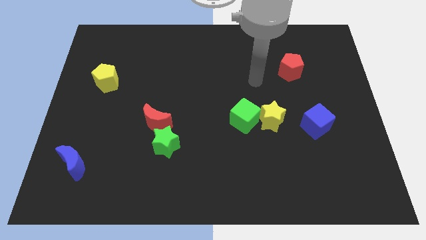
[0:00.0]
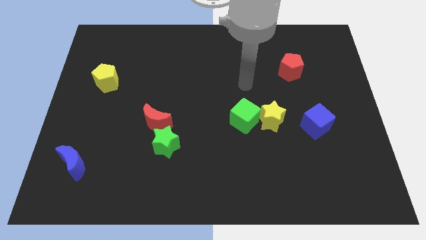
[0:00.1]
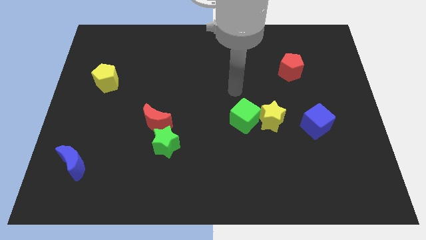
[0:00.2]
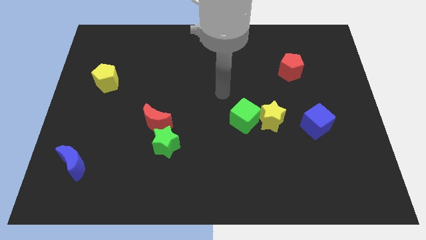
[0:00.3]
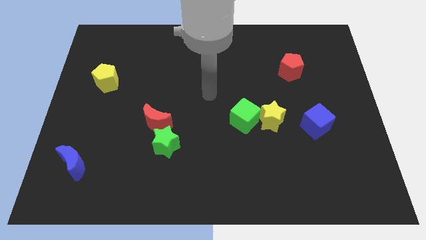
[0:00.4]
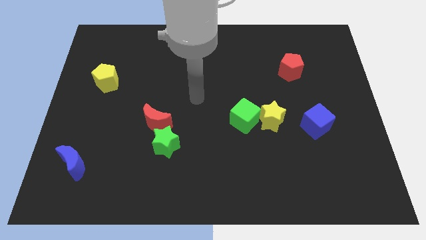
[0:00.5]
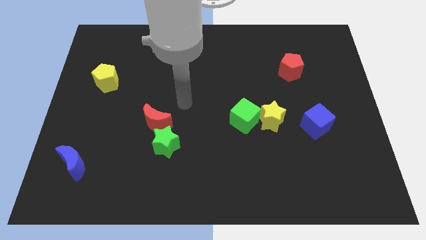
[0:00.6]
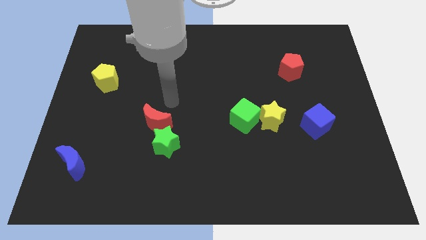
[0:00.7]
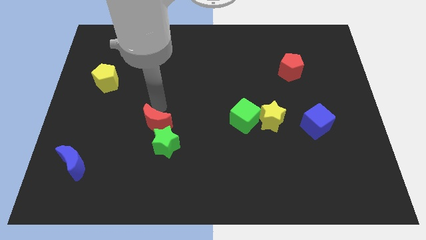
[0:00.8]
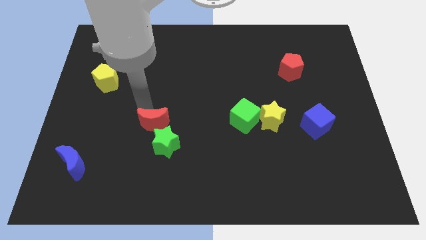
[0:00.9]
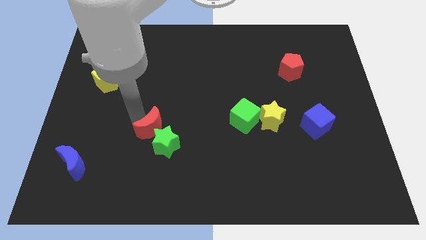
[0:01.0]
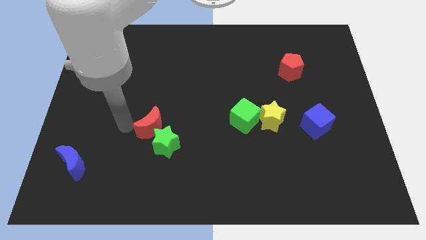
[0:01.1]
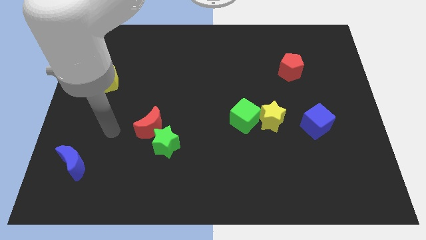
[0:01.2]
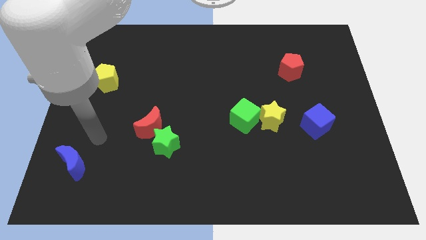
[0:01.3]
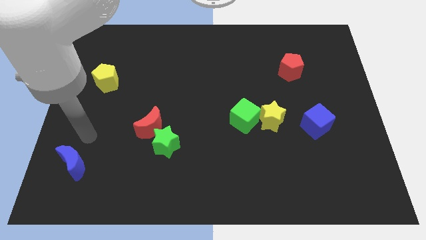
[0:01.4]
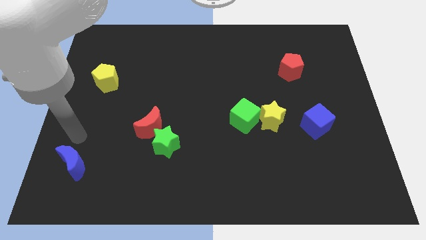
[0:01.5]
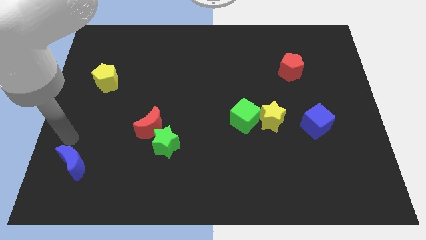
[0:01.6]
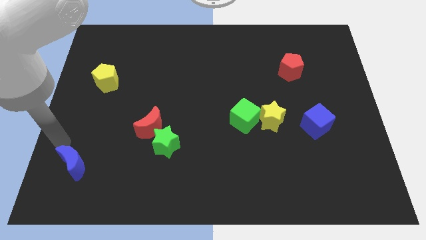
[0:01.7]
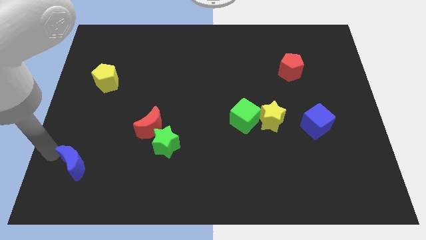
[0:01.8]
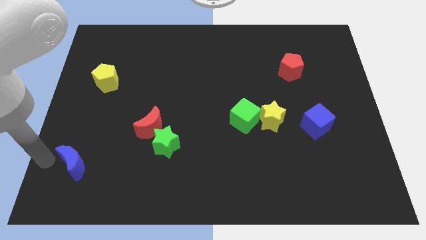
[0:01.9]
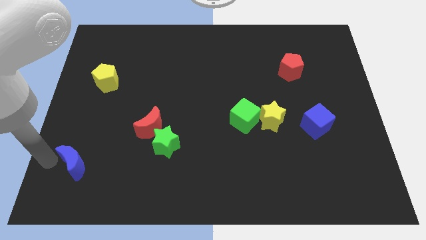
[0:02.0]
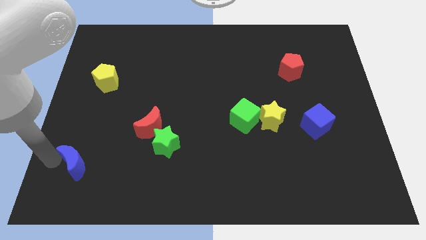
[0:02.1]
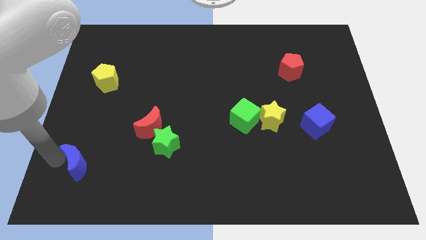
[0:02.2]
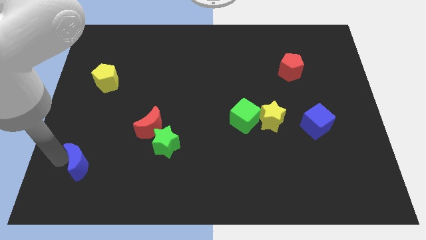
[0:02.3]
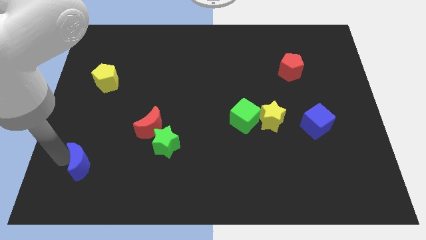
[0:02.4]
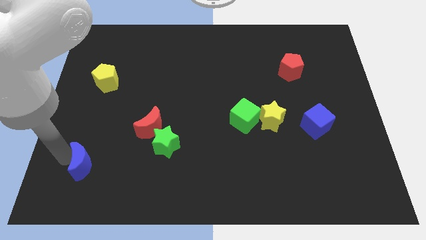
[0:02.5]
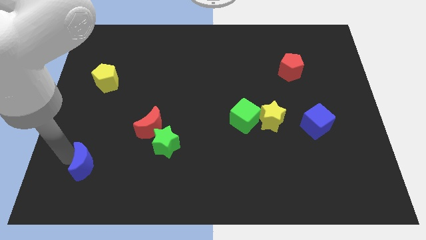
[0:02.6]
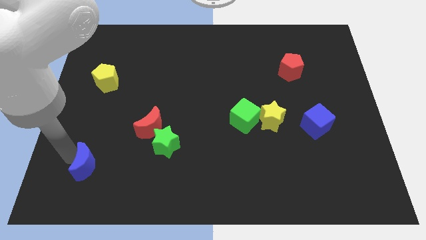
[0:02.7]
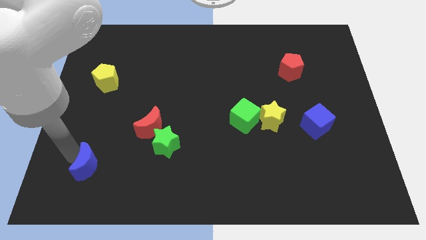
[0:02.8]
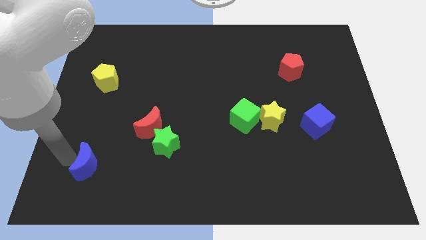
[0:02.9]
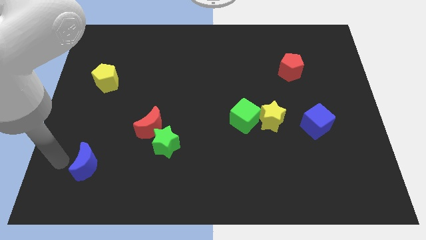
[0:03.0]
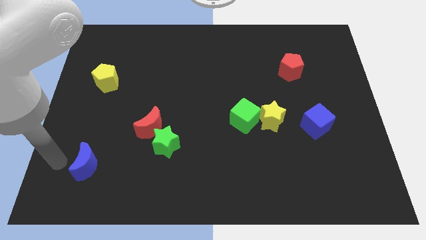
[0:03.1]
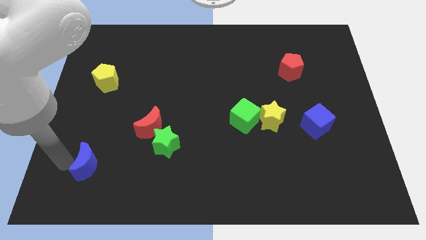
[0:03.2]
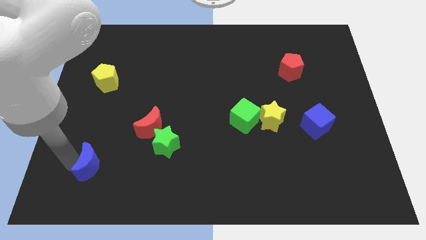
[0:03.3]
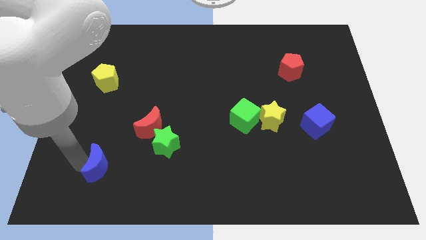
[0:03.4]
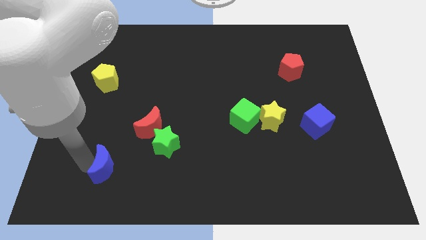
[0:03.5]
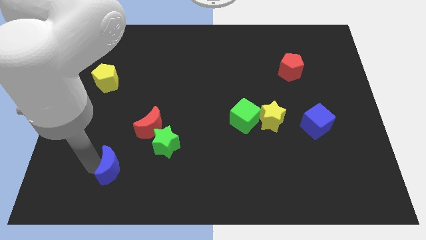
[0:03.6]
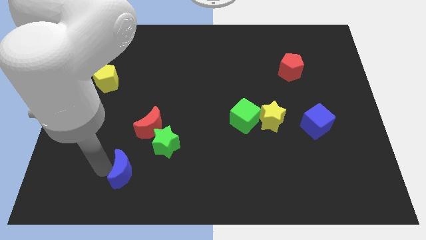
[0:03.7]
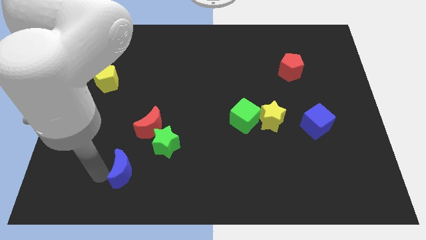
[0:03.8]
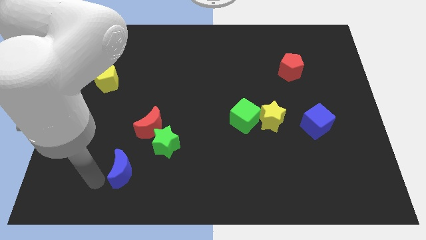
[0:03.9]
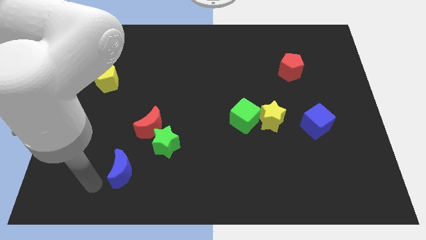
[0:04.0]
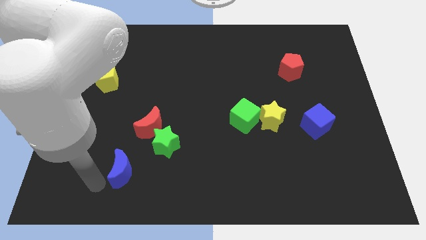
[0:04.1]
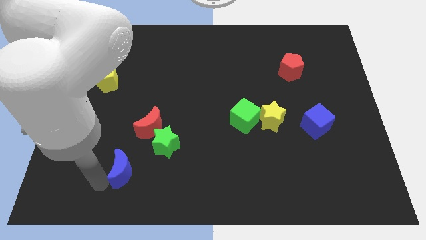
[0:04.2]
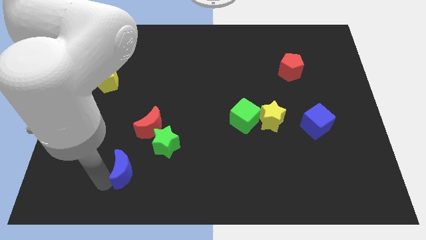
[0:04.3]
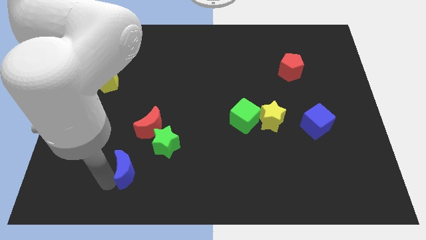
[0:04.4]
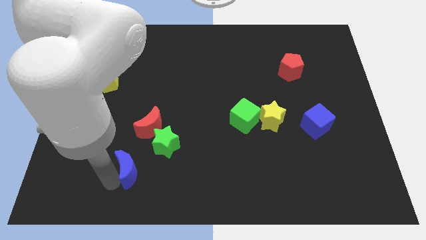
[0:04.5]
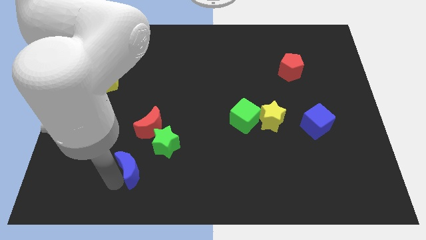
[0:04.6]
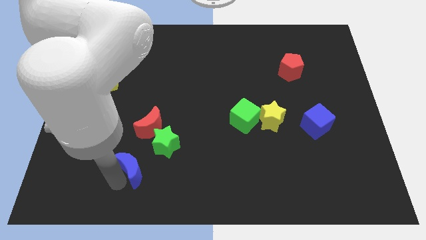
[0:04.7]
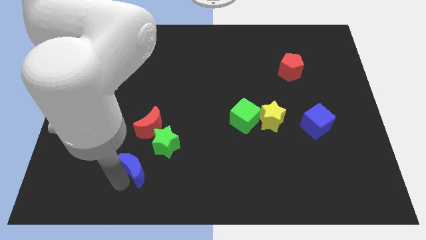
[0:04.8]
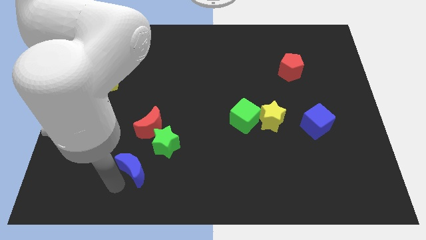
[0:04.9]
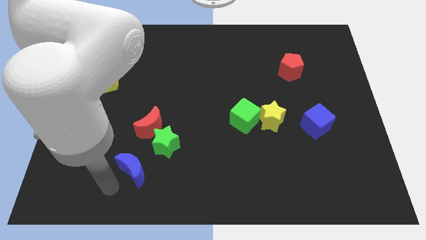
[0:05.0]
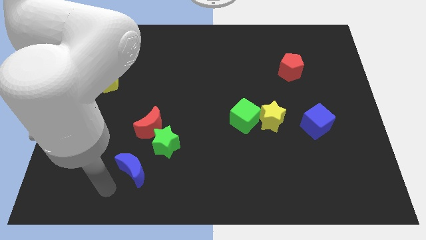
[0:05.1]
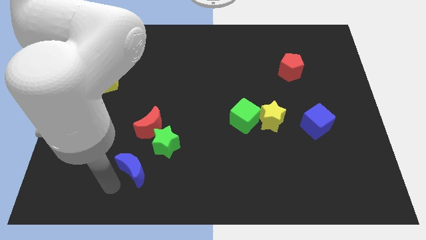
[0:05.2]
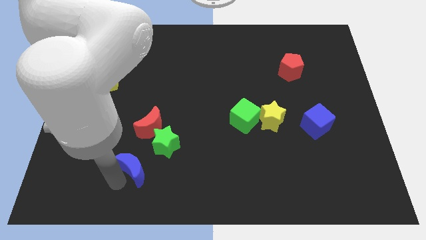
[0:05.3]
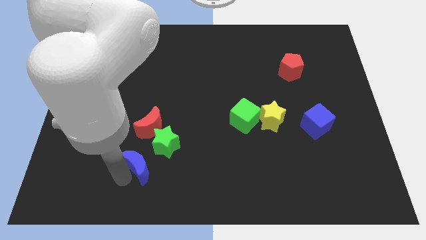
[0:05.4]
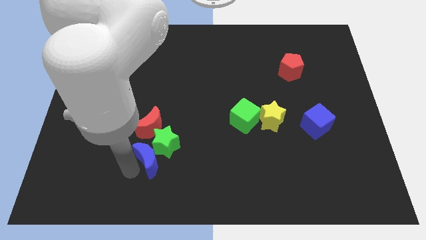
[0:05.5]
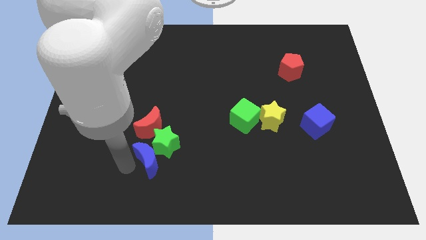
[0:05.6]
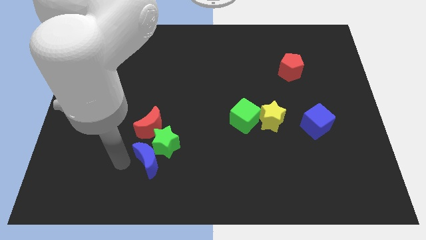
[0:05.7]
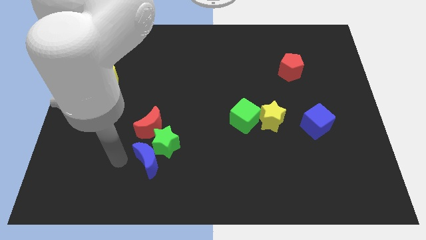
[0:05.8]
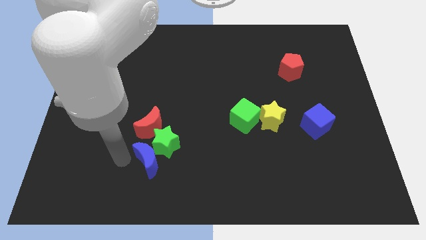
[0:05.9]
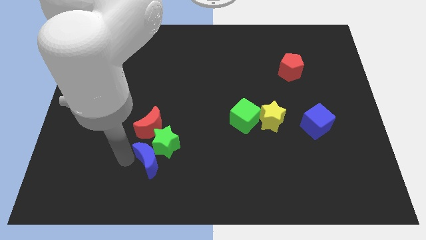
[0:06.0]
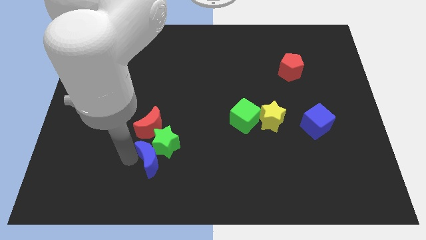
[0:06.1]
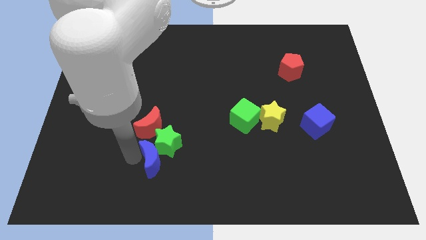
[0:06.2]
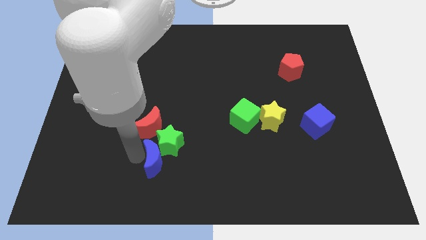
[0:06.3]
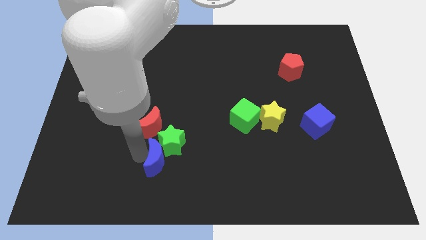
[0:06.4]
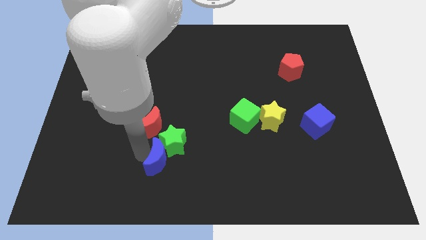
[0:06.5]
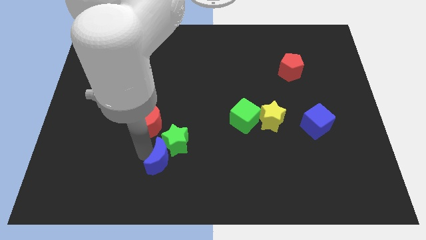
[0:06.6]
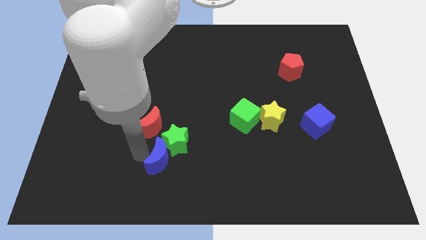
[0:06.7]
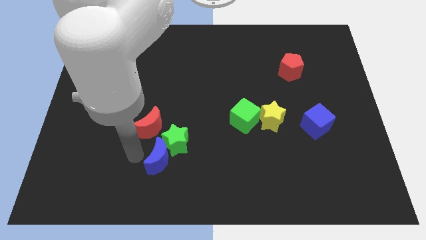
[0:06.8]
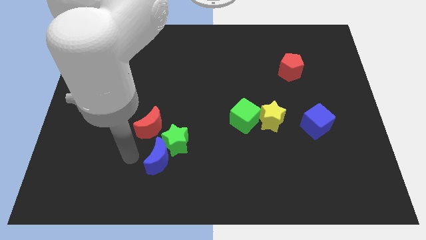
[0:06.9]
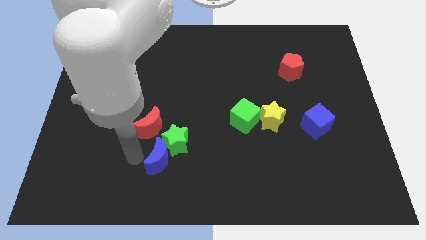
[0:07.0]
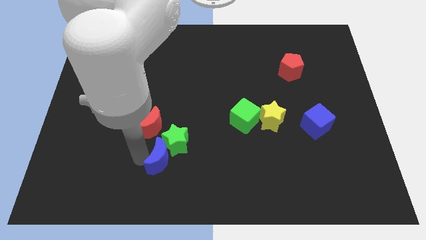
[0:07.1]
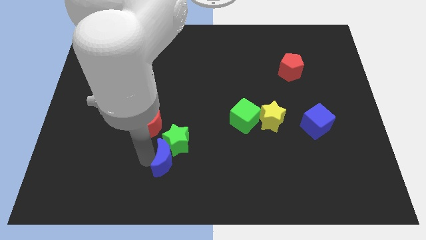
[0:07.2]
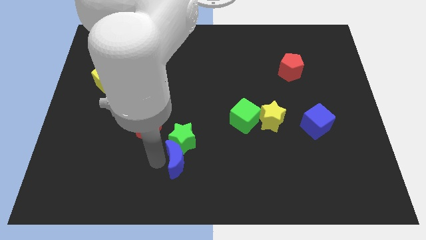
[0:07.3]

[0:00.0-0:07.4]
push the blue moon right
